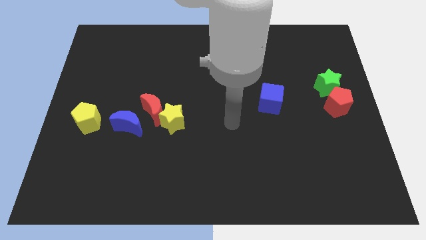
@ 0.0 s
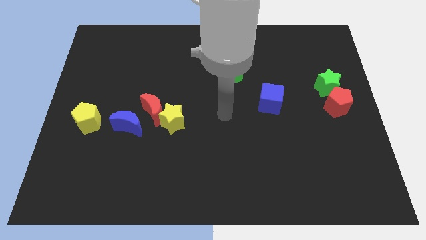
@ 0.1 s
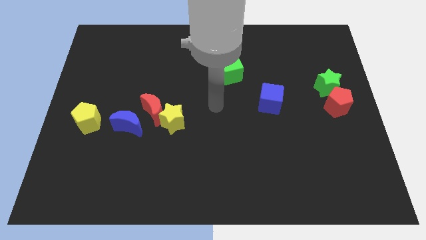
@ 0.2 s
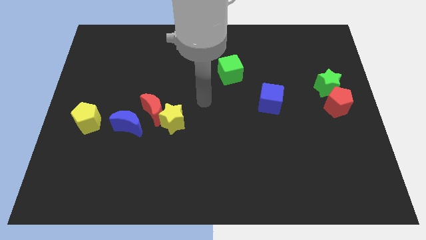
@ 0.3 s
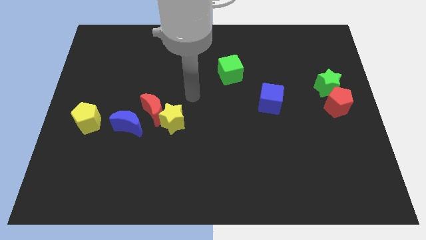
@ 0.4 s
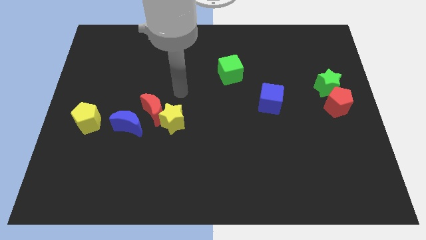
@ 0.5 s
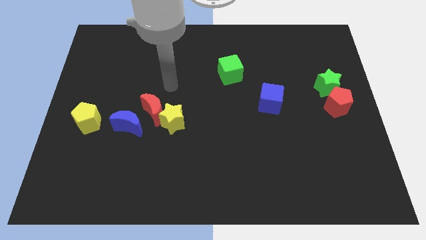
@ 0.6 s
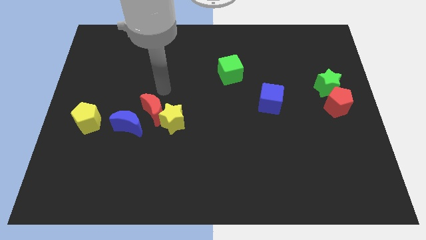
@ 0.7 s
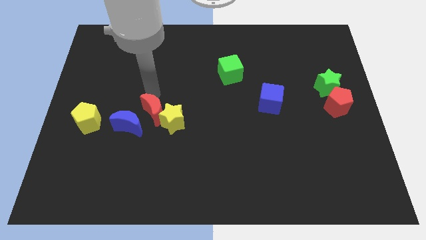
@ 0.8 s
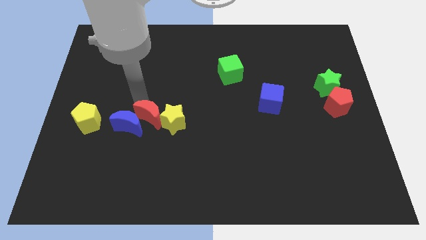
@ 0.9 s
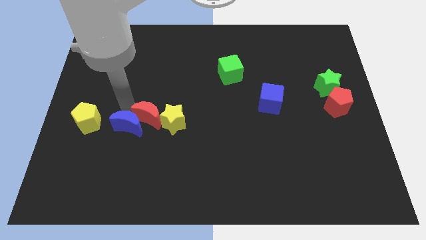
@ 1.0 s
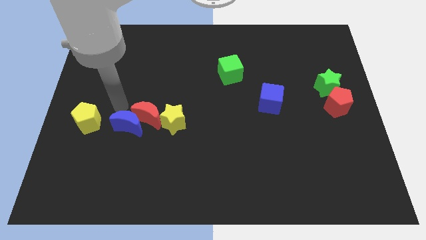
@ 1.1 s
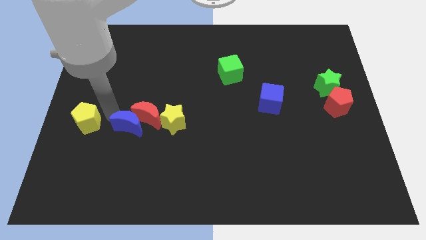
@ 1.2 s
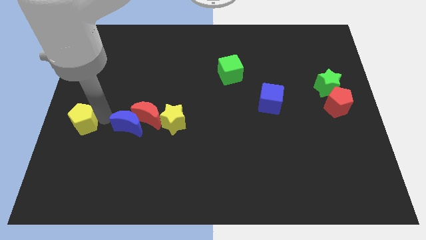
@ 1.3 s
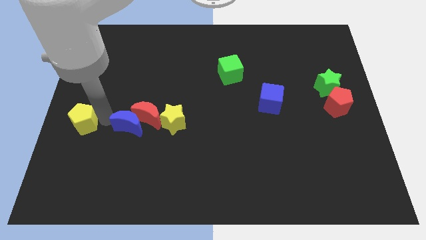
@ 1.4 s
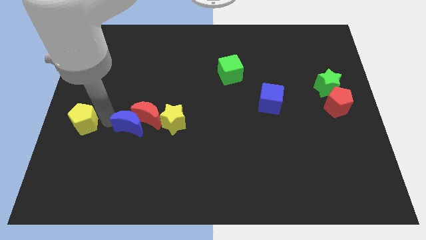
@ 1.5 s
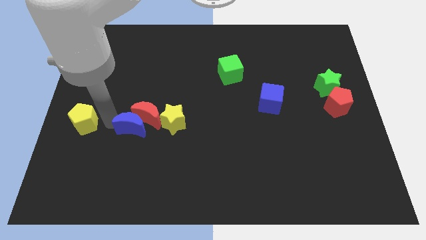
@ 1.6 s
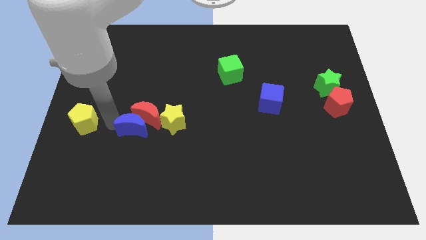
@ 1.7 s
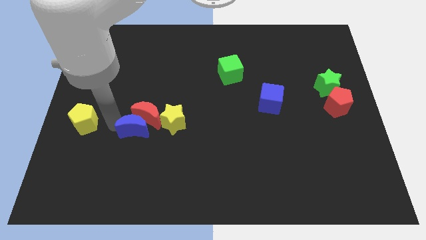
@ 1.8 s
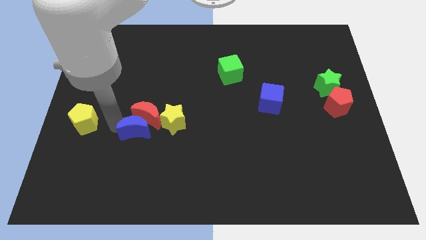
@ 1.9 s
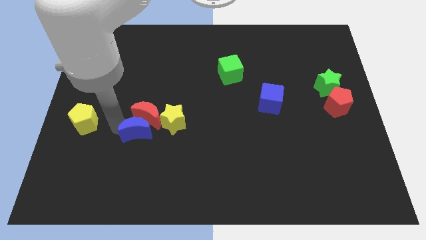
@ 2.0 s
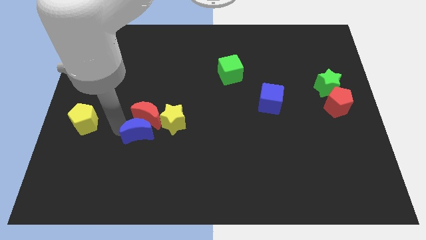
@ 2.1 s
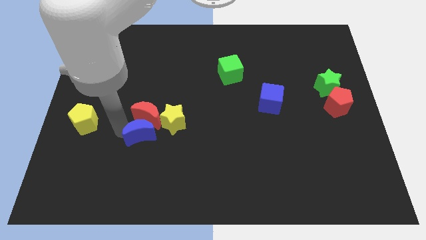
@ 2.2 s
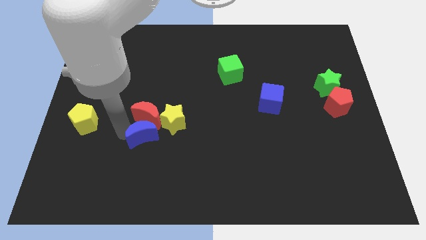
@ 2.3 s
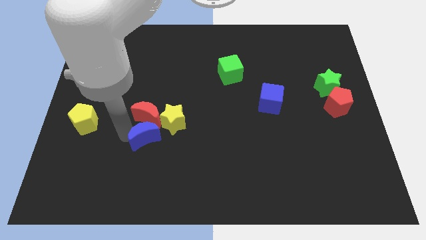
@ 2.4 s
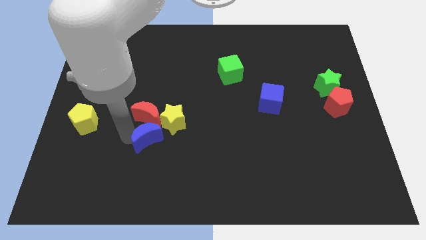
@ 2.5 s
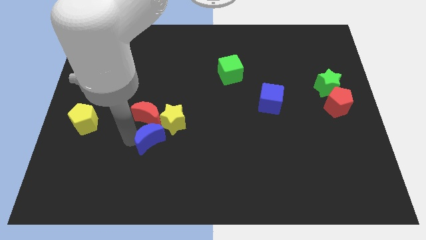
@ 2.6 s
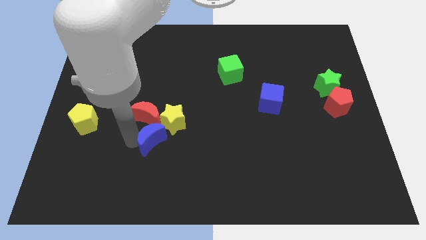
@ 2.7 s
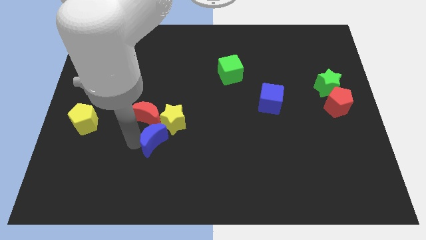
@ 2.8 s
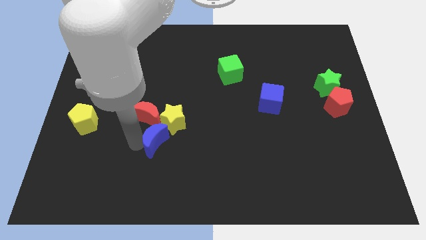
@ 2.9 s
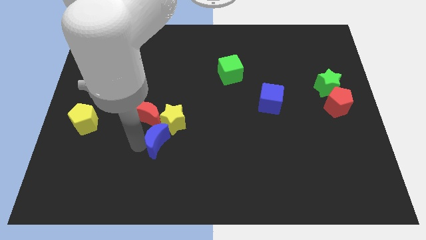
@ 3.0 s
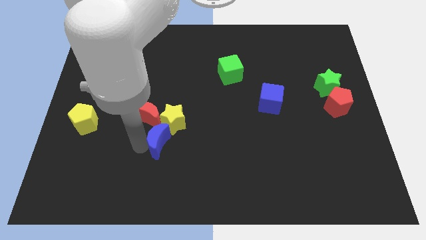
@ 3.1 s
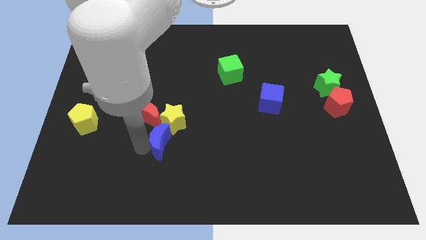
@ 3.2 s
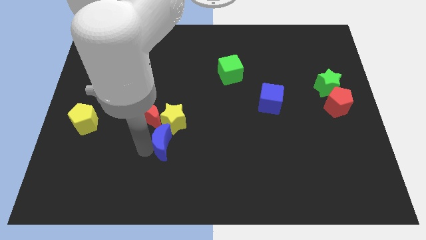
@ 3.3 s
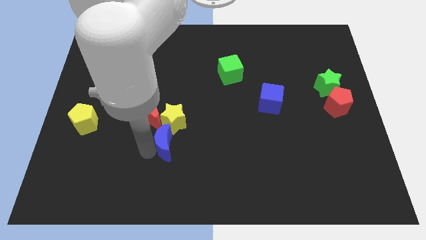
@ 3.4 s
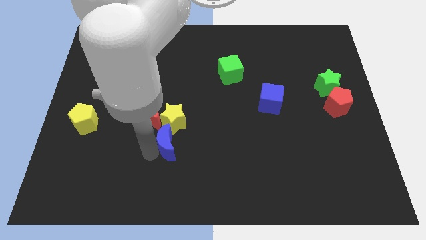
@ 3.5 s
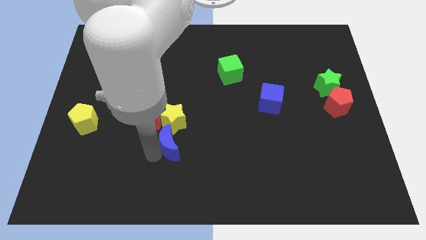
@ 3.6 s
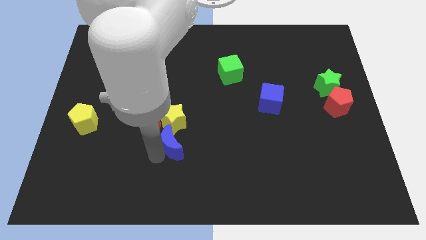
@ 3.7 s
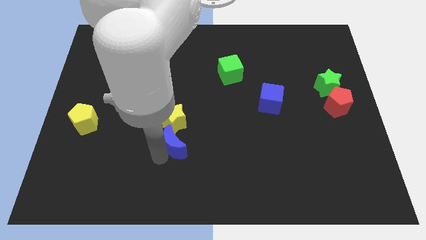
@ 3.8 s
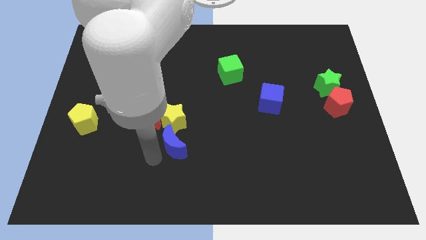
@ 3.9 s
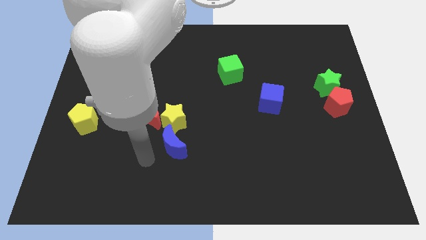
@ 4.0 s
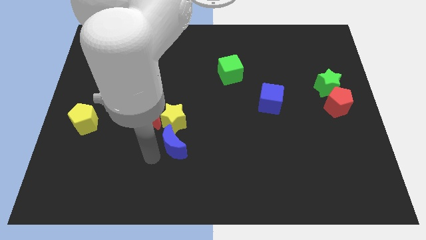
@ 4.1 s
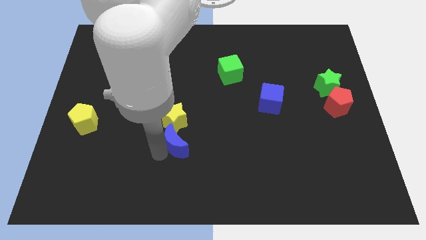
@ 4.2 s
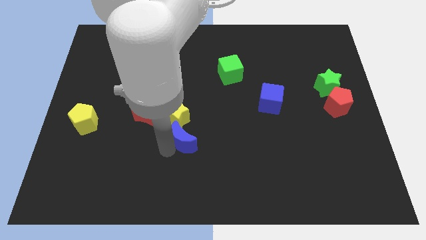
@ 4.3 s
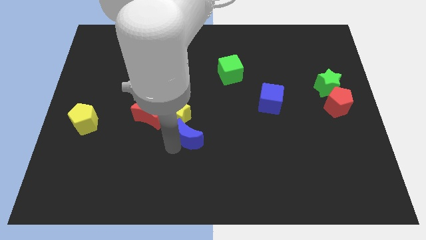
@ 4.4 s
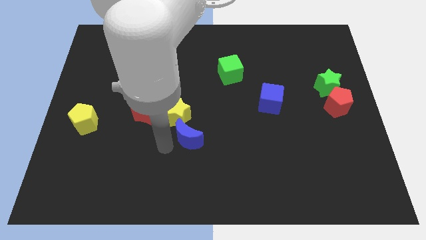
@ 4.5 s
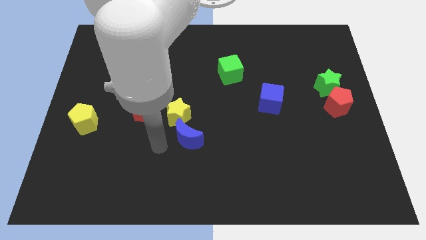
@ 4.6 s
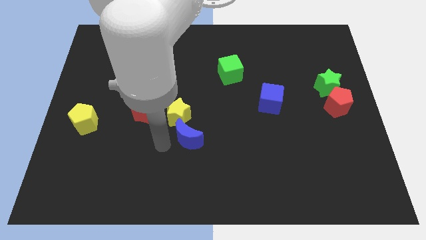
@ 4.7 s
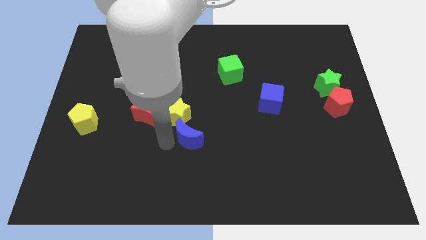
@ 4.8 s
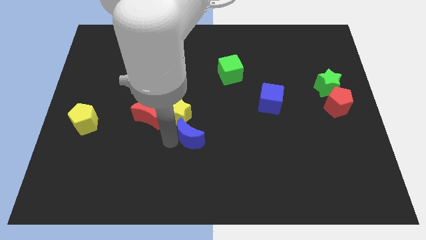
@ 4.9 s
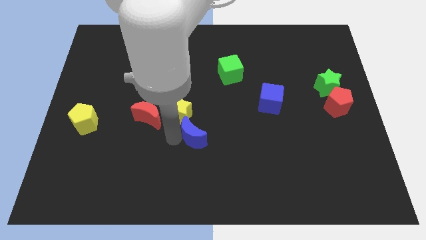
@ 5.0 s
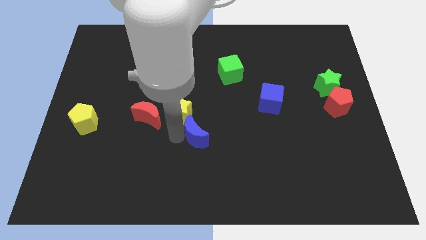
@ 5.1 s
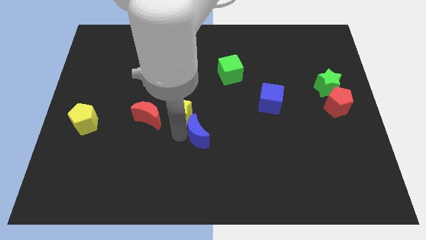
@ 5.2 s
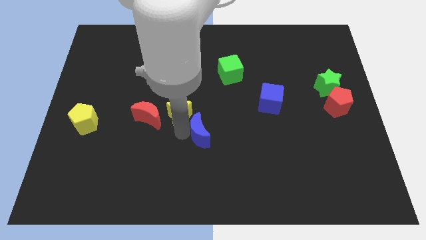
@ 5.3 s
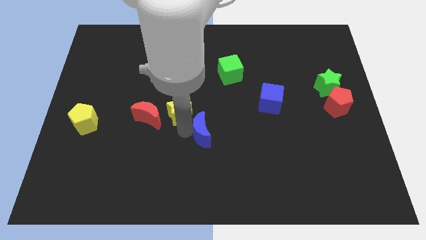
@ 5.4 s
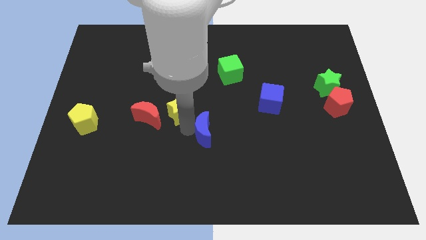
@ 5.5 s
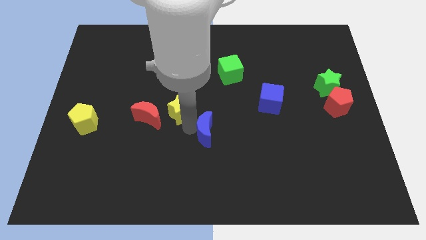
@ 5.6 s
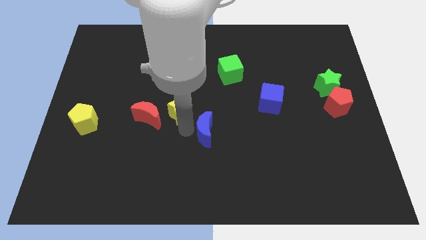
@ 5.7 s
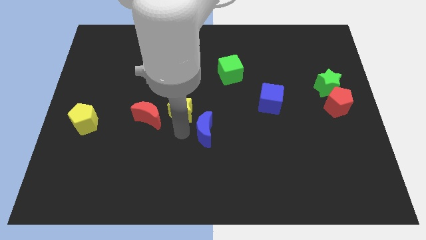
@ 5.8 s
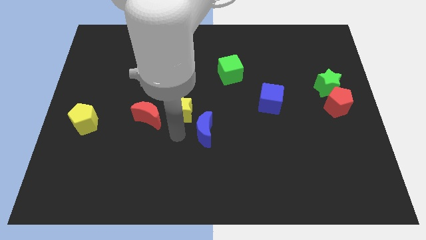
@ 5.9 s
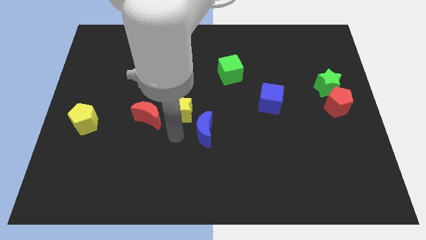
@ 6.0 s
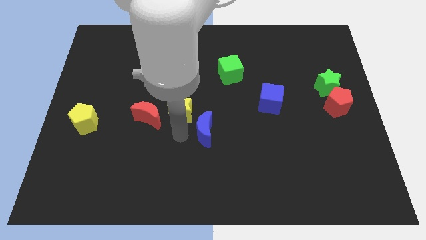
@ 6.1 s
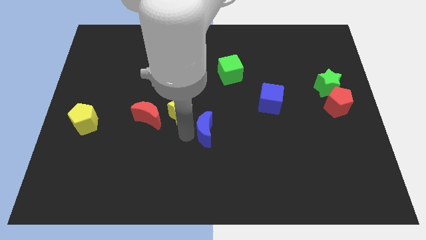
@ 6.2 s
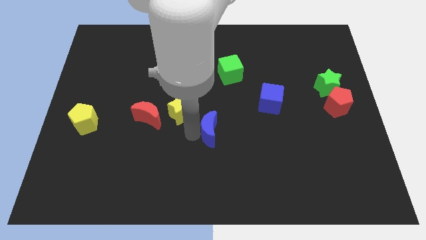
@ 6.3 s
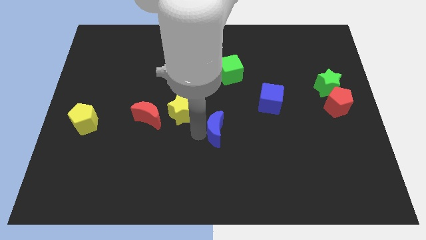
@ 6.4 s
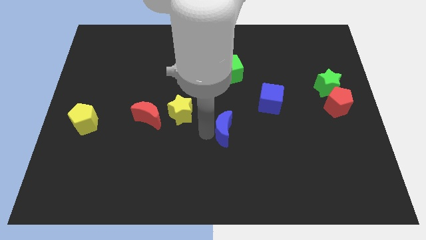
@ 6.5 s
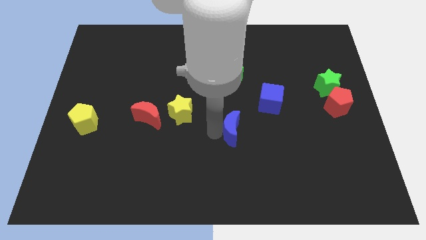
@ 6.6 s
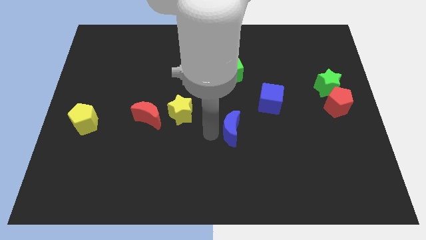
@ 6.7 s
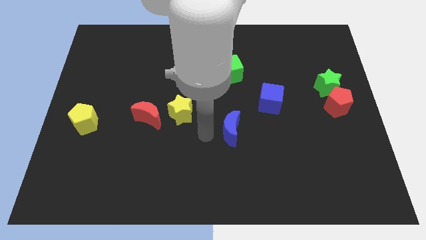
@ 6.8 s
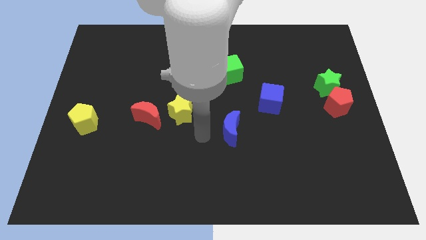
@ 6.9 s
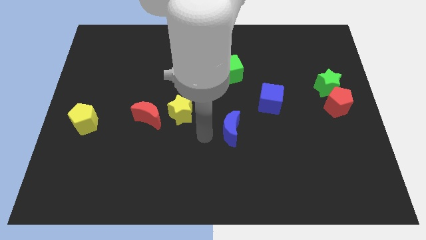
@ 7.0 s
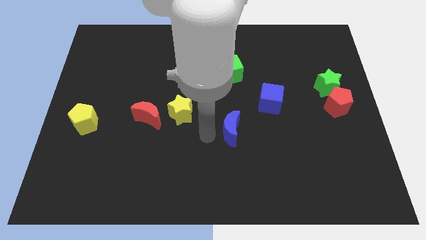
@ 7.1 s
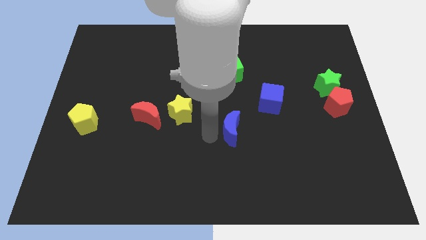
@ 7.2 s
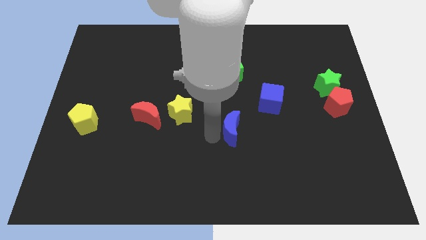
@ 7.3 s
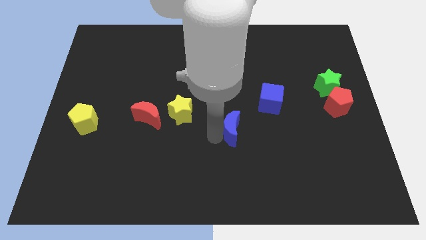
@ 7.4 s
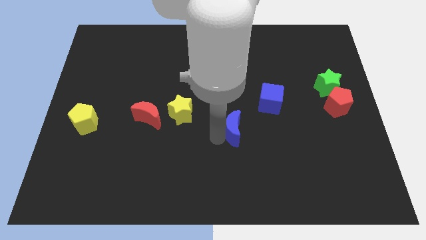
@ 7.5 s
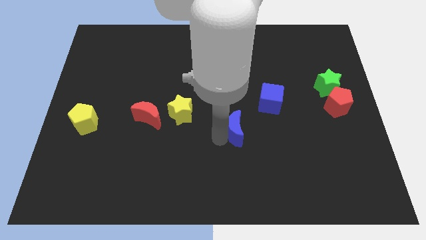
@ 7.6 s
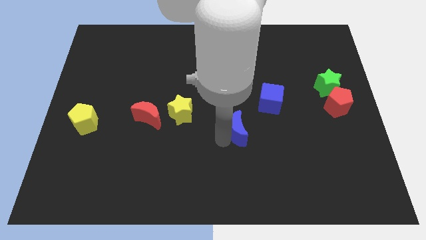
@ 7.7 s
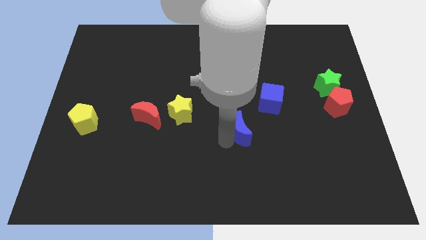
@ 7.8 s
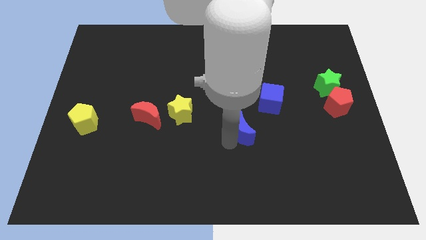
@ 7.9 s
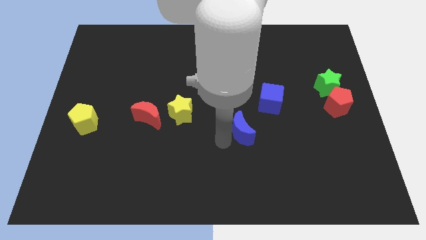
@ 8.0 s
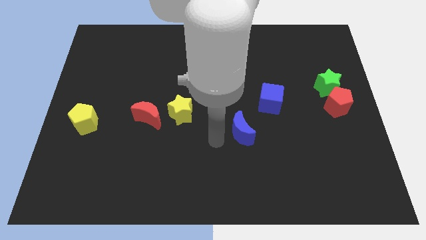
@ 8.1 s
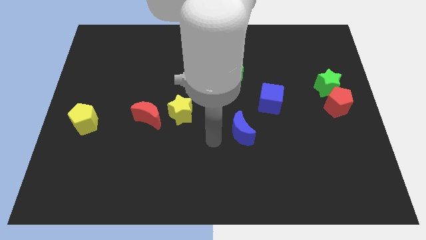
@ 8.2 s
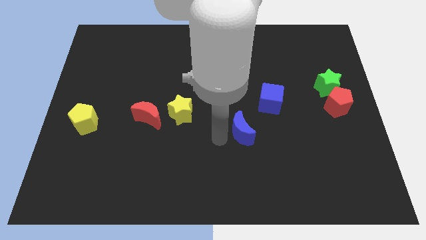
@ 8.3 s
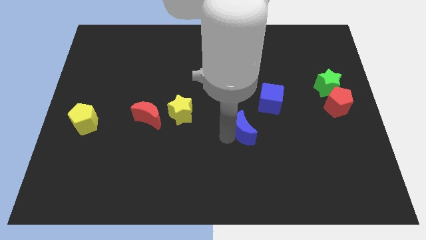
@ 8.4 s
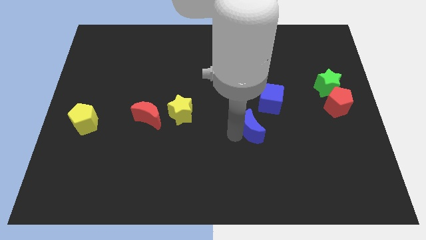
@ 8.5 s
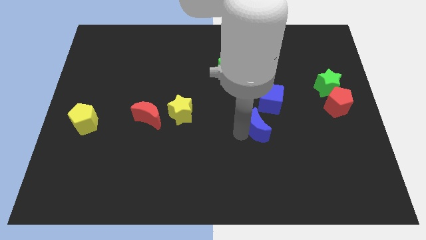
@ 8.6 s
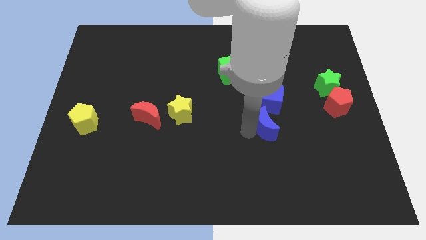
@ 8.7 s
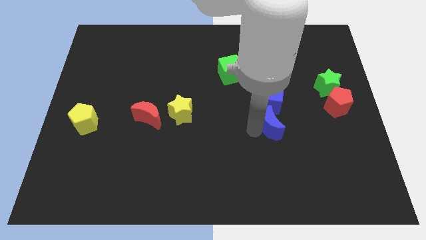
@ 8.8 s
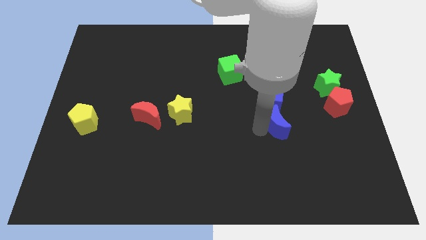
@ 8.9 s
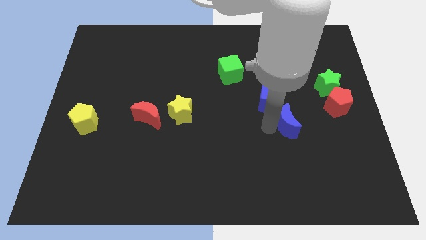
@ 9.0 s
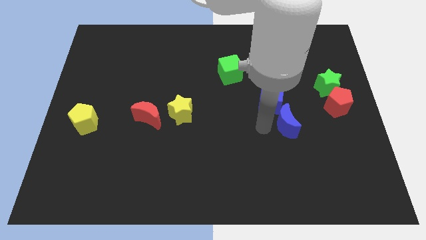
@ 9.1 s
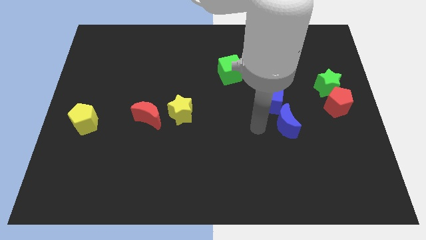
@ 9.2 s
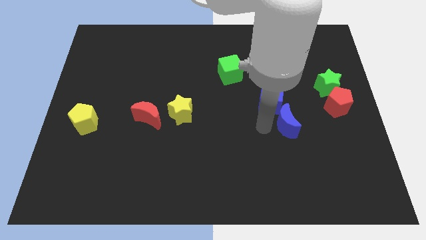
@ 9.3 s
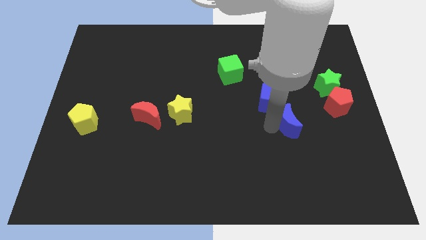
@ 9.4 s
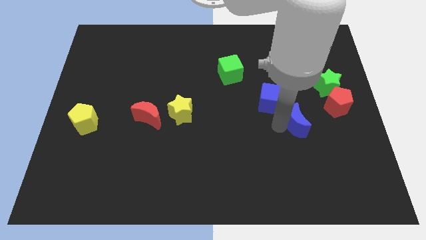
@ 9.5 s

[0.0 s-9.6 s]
put the blue moon to the bottom left side of the red pentagon
